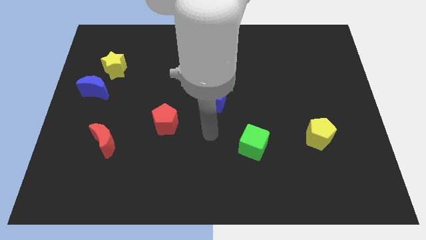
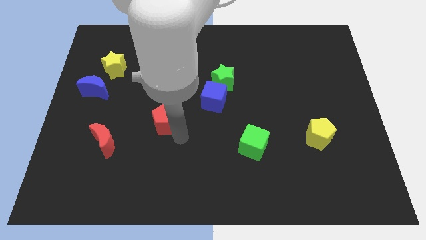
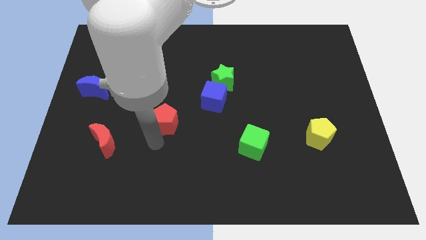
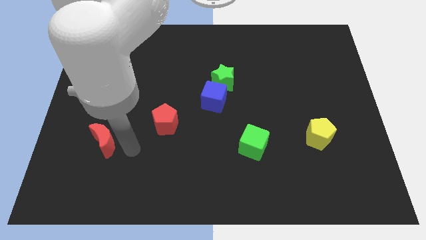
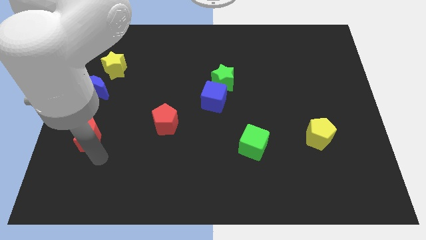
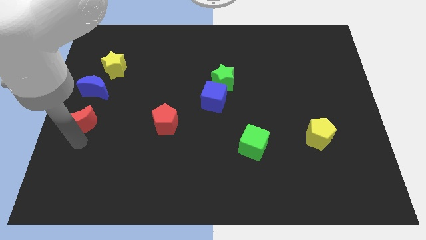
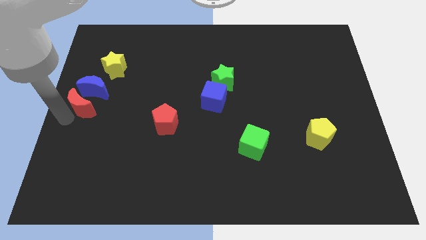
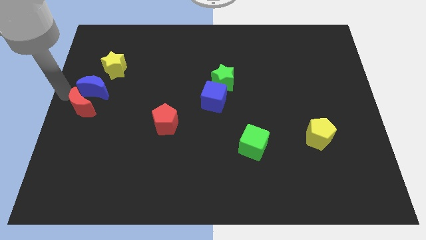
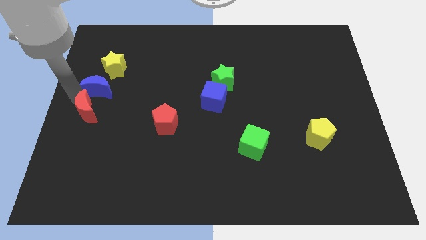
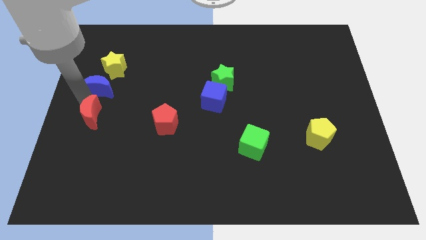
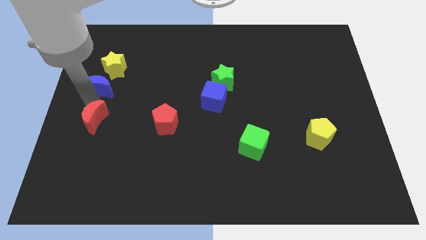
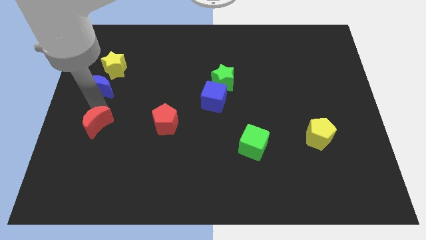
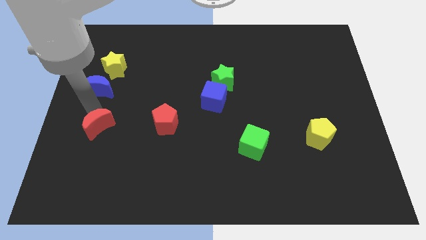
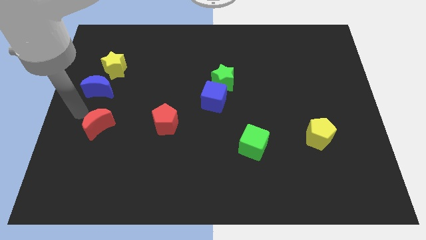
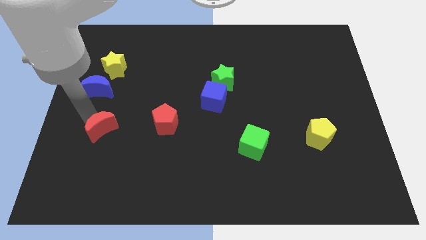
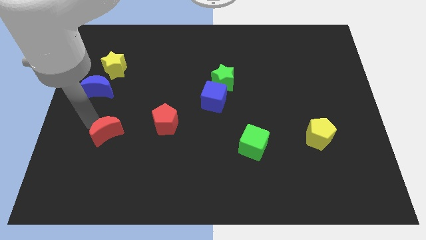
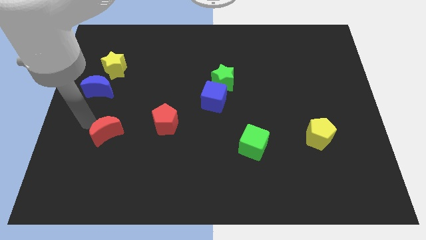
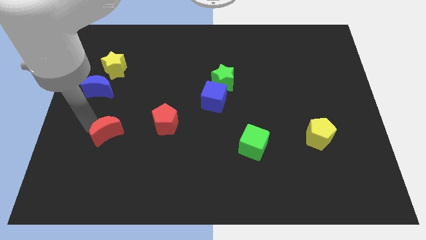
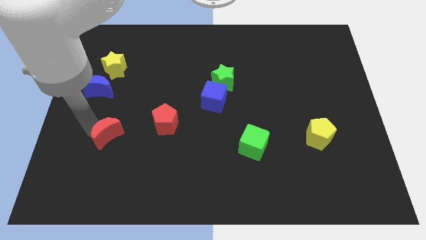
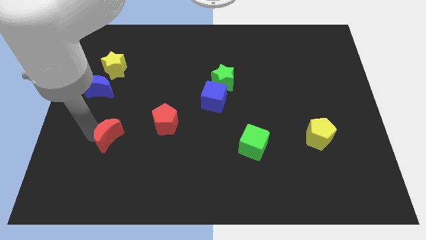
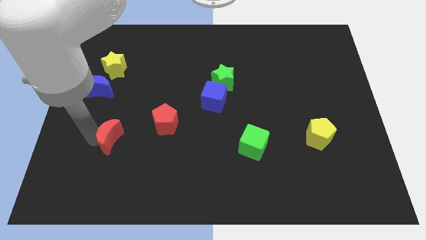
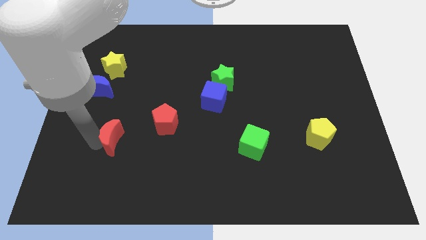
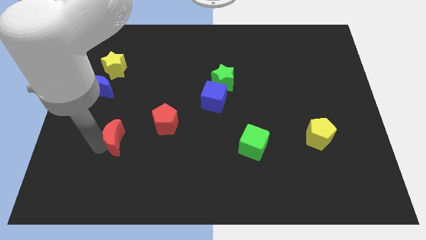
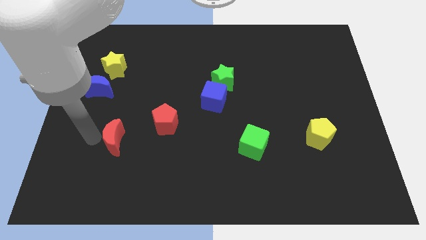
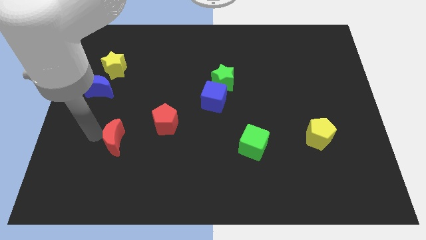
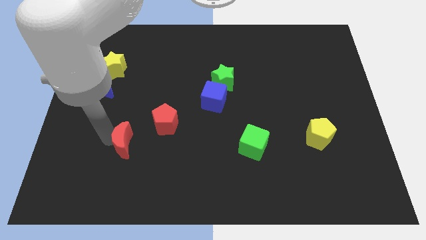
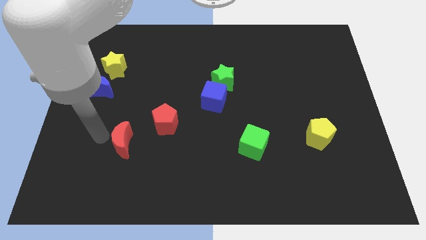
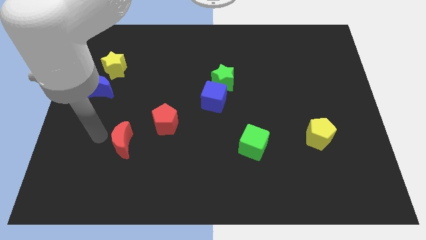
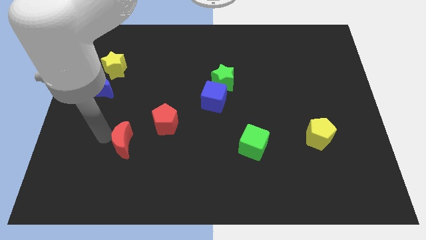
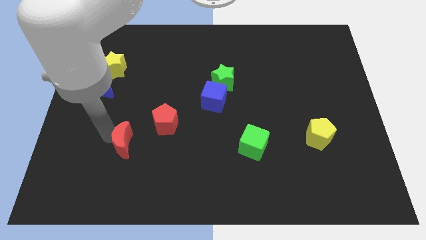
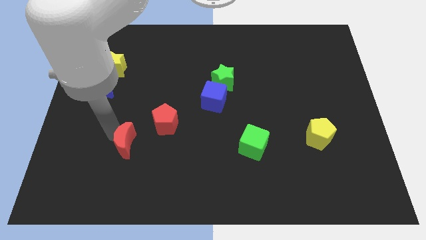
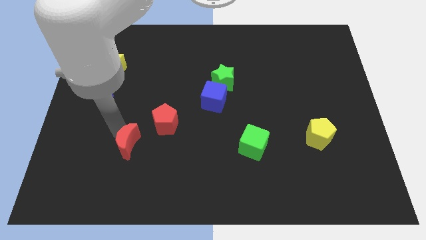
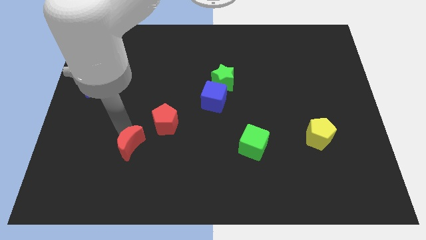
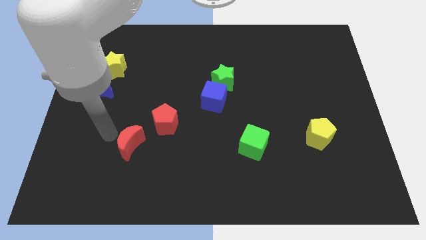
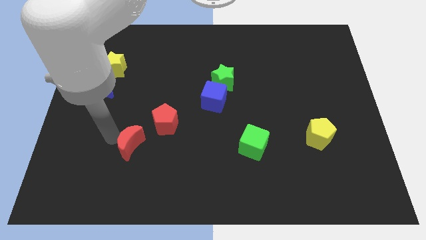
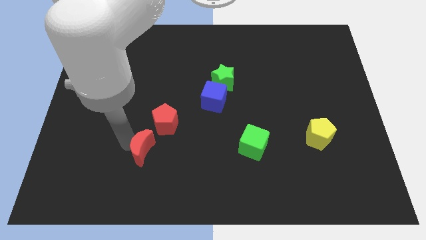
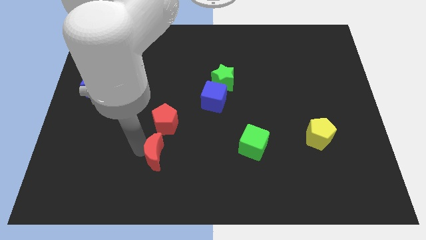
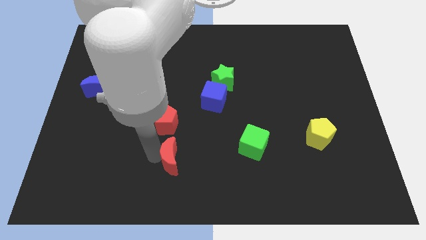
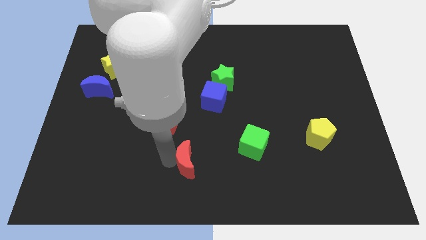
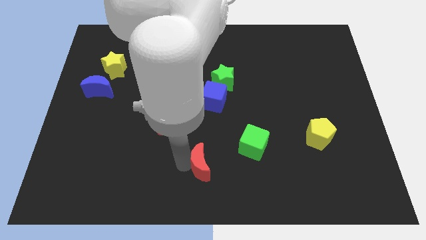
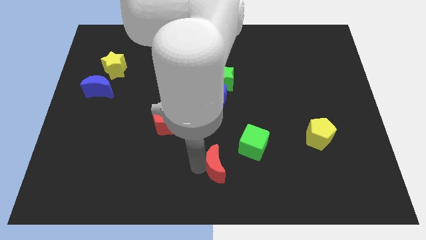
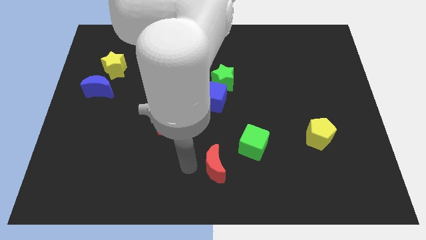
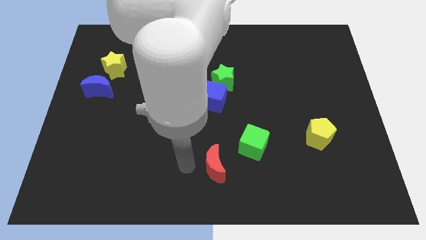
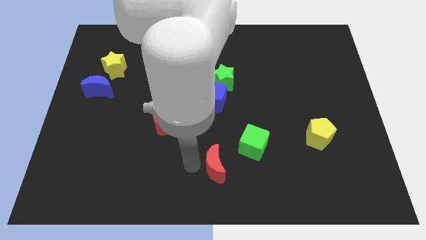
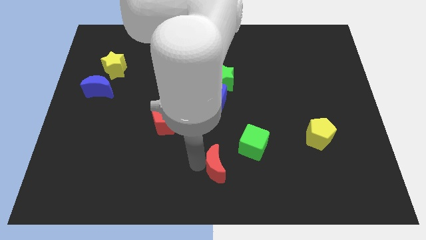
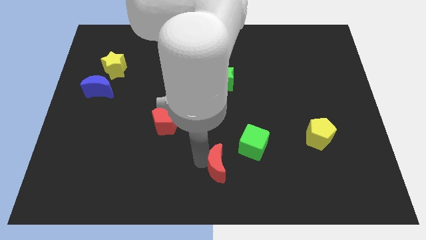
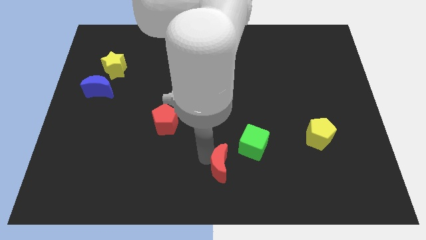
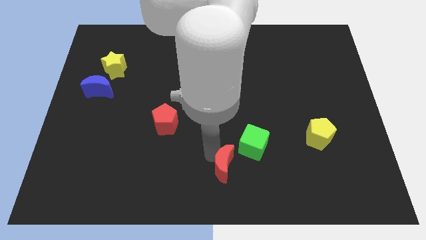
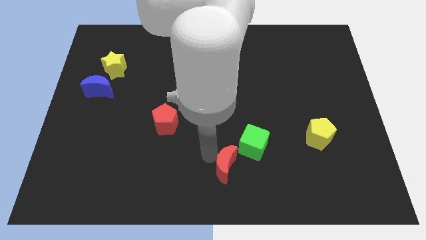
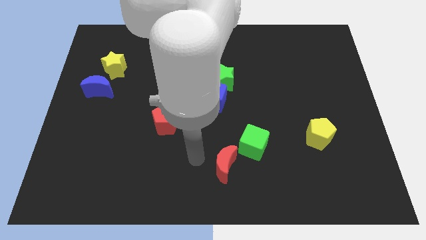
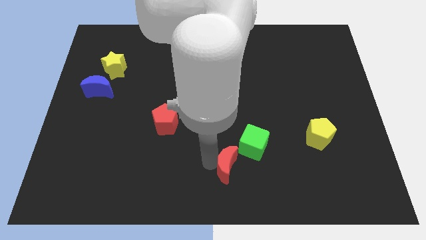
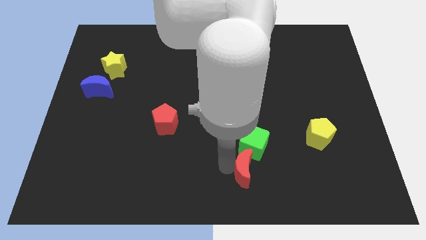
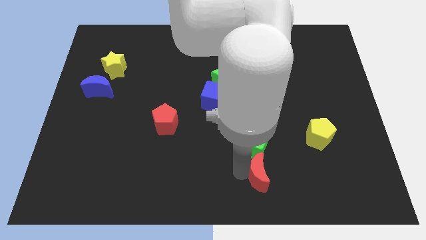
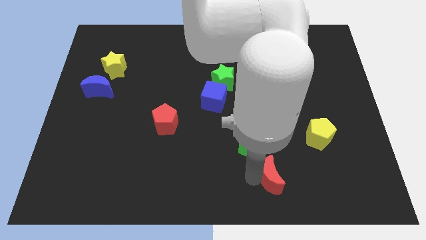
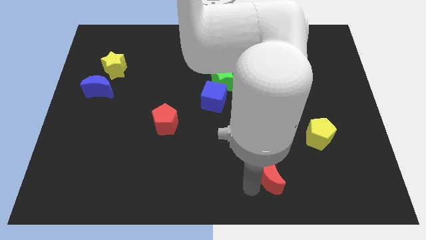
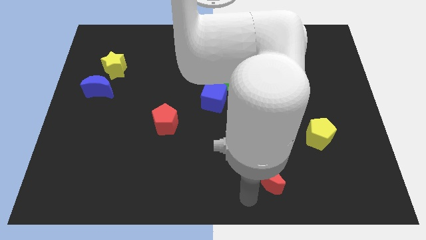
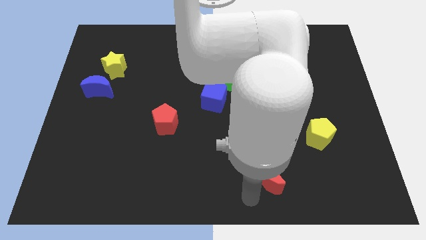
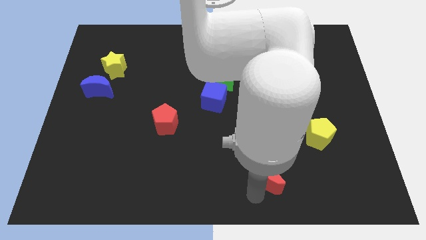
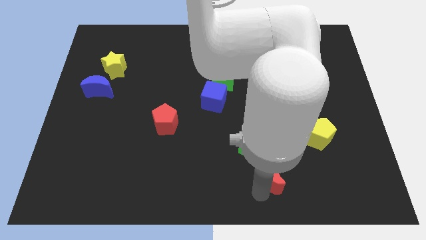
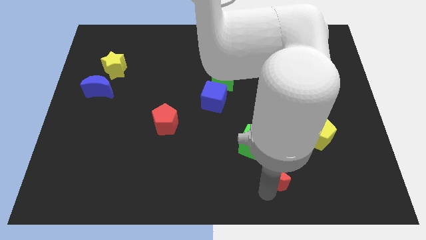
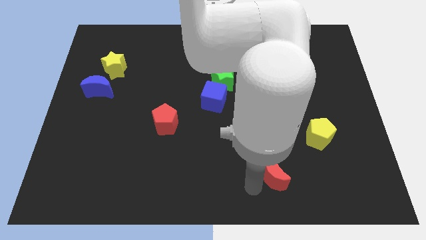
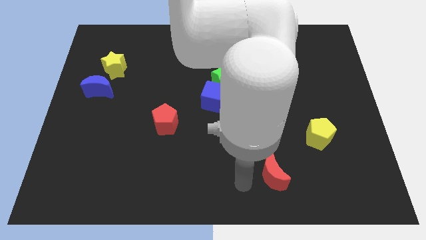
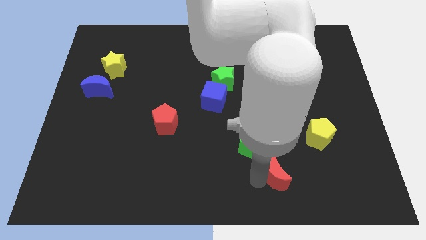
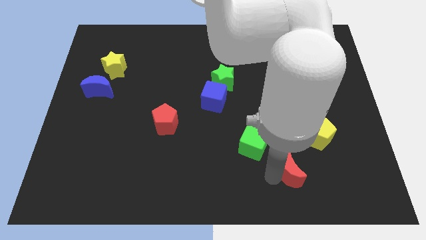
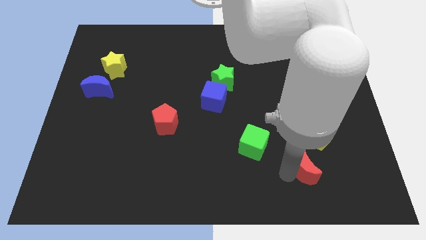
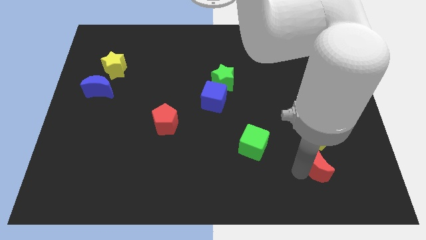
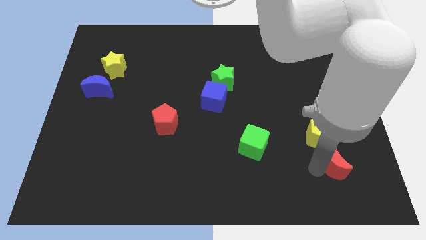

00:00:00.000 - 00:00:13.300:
push the red moon to the bottom right of the yellow pentagon
